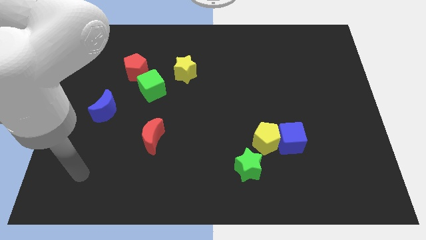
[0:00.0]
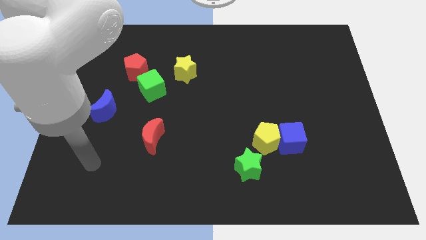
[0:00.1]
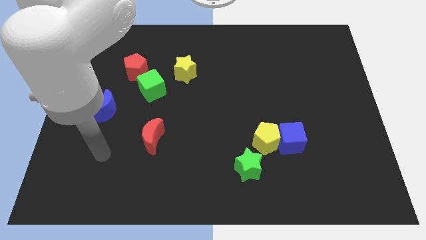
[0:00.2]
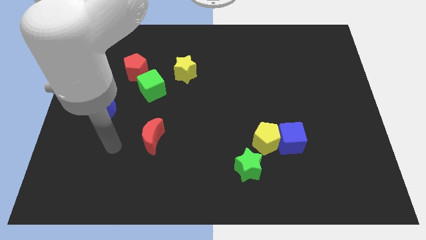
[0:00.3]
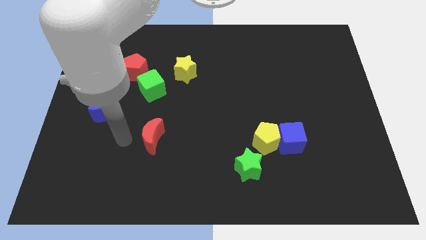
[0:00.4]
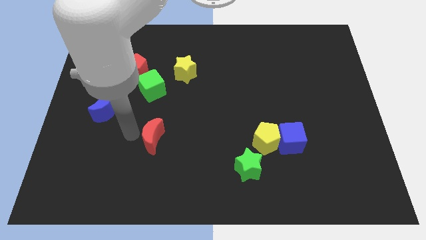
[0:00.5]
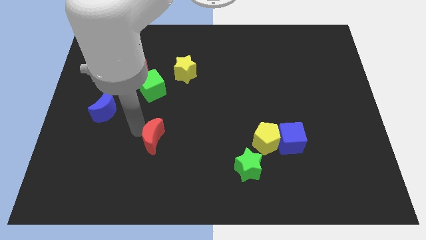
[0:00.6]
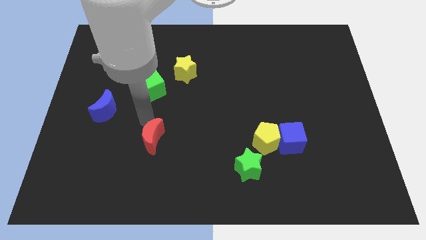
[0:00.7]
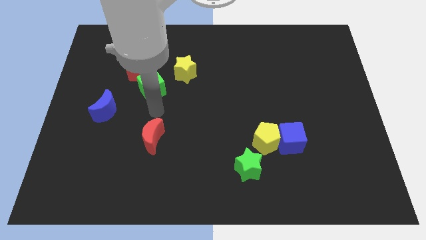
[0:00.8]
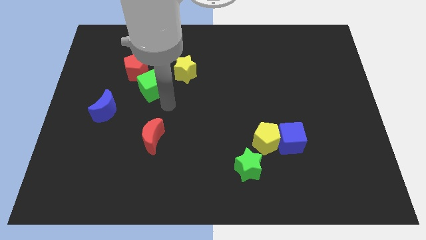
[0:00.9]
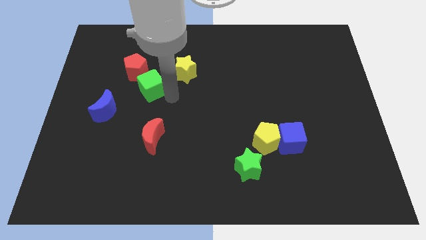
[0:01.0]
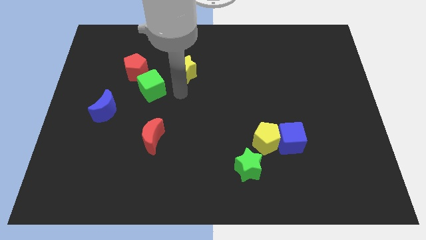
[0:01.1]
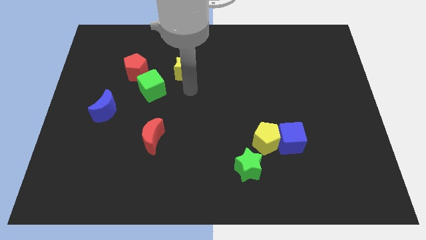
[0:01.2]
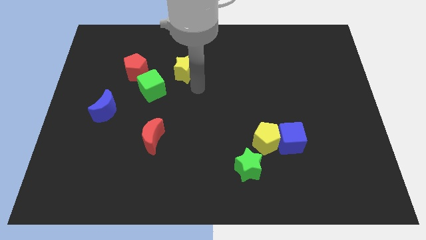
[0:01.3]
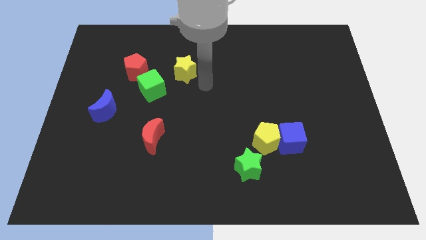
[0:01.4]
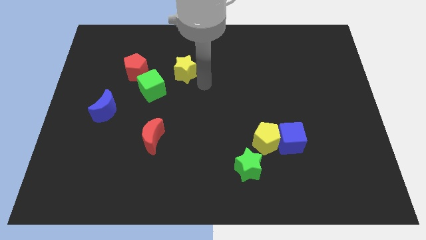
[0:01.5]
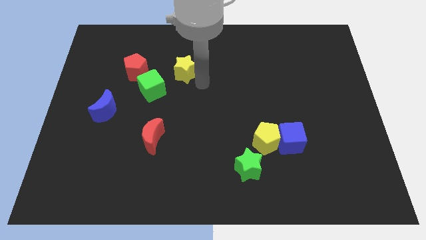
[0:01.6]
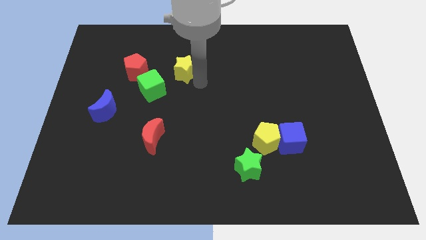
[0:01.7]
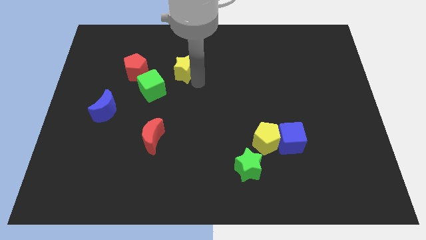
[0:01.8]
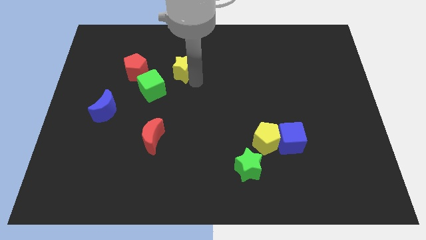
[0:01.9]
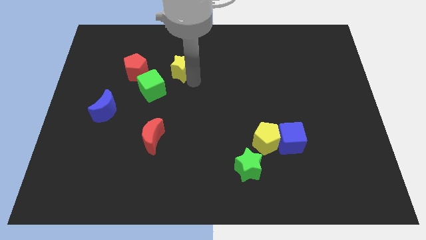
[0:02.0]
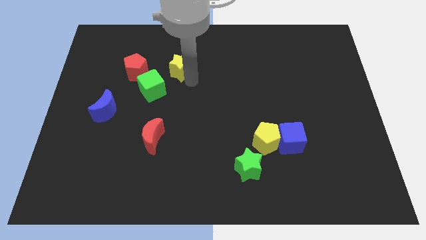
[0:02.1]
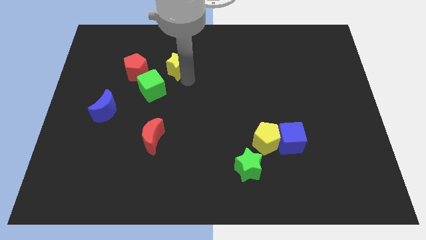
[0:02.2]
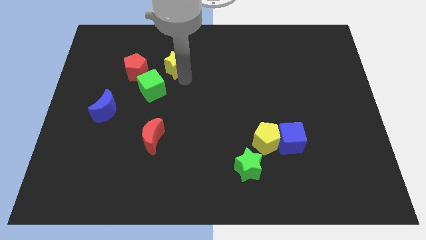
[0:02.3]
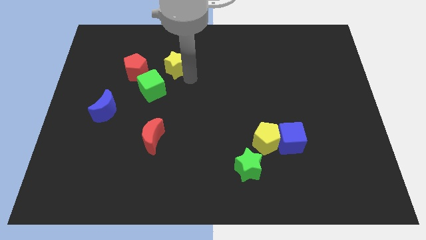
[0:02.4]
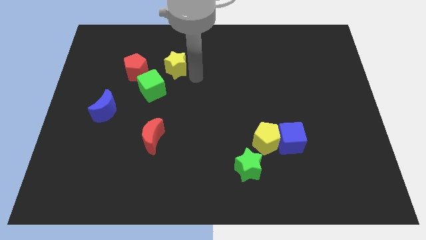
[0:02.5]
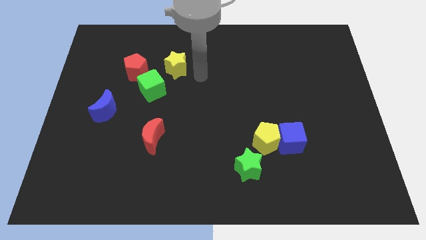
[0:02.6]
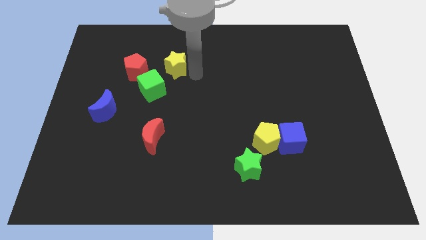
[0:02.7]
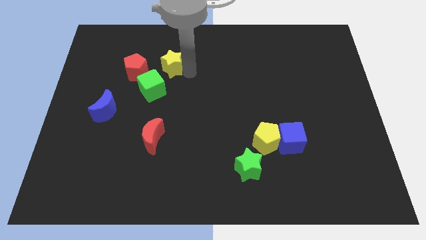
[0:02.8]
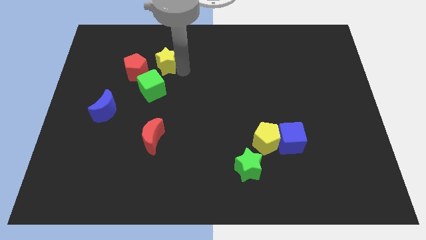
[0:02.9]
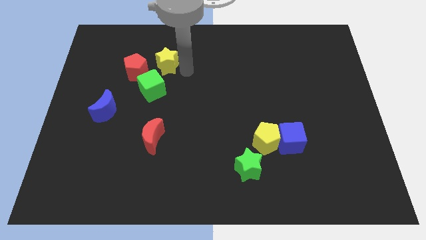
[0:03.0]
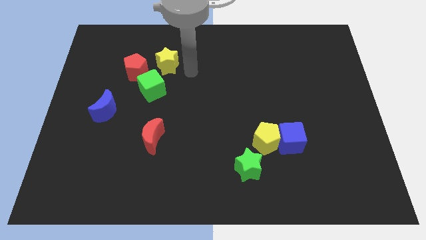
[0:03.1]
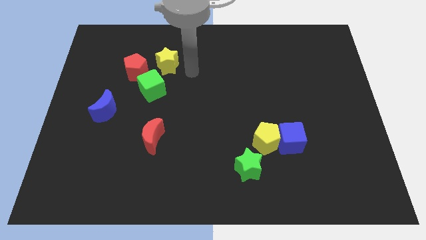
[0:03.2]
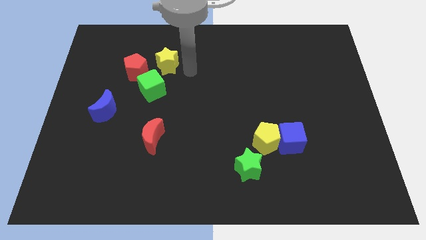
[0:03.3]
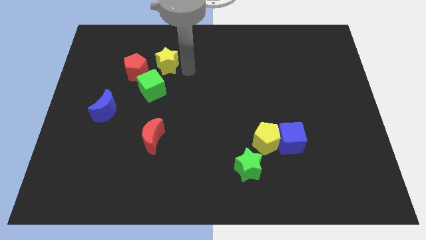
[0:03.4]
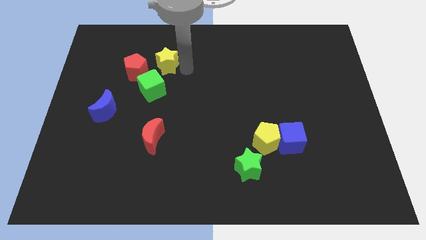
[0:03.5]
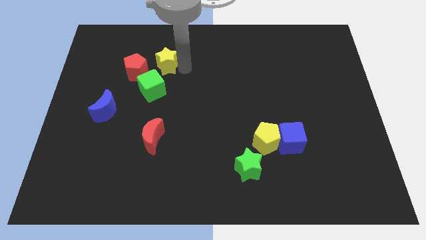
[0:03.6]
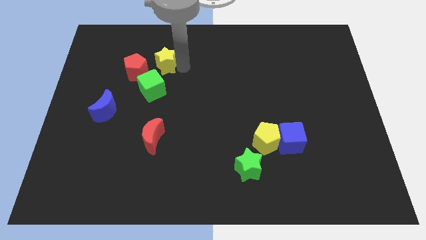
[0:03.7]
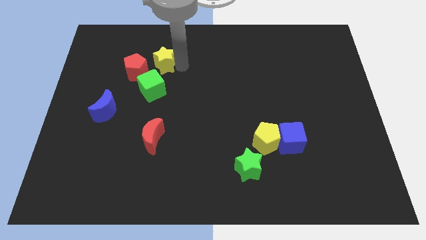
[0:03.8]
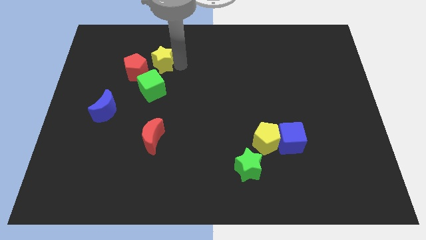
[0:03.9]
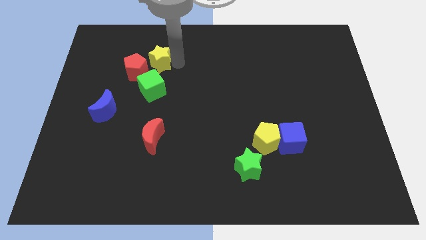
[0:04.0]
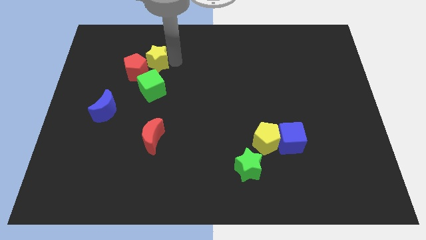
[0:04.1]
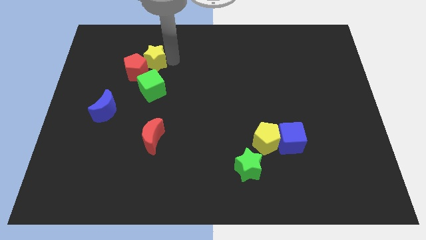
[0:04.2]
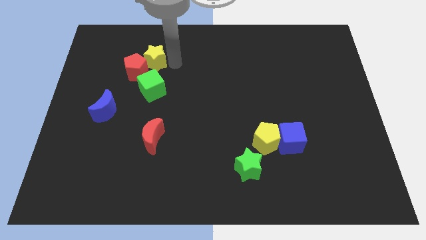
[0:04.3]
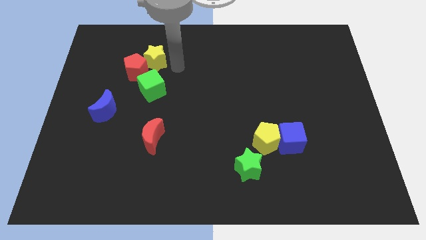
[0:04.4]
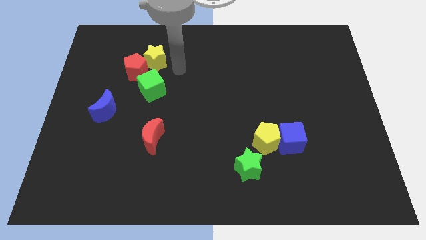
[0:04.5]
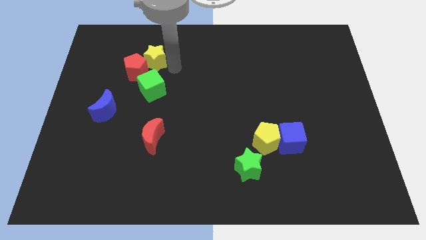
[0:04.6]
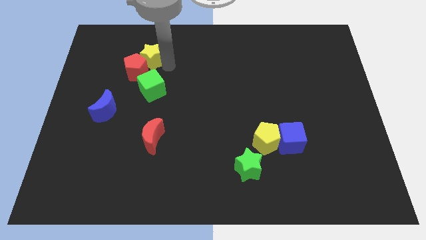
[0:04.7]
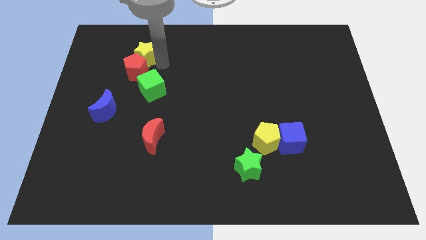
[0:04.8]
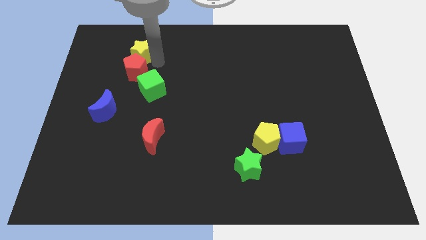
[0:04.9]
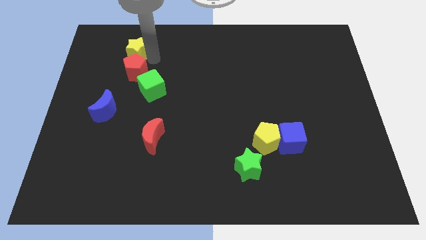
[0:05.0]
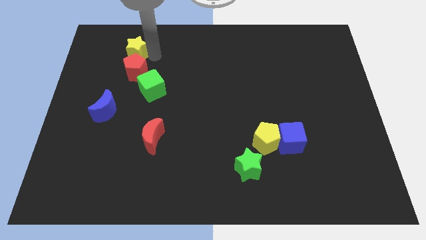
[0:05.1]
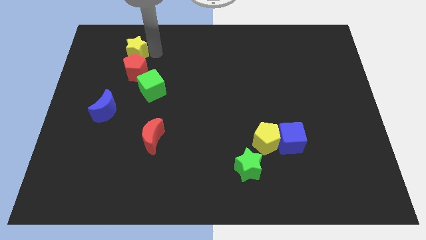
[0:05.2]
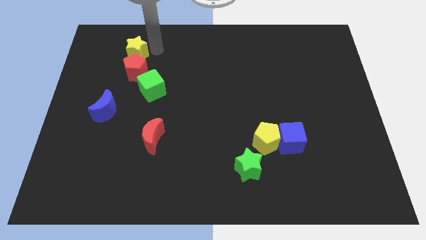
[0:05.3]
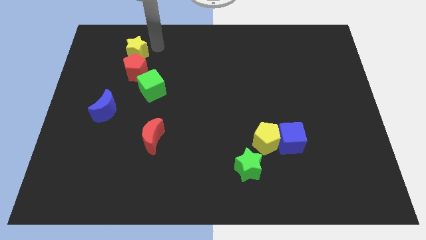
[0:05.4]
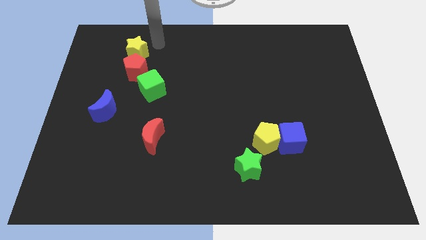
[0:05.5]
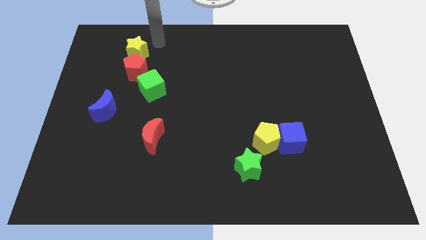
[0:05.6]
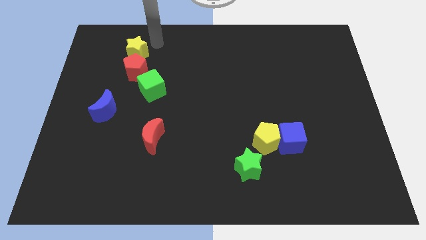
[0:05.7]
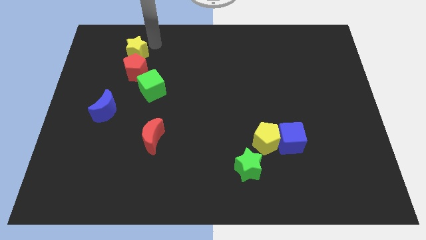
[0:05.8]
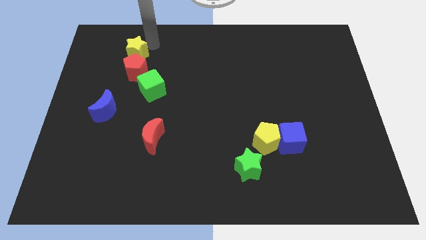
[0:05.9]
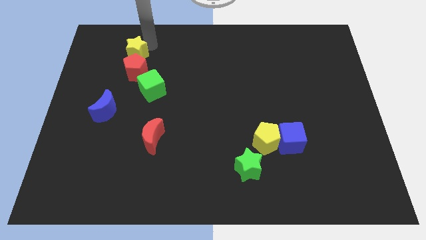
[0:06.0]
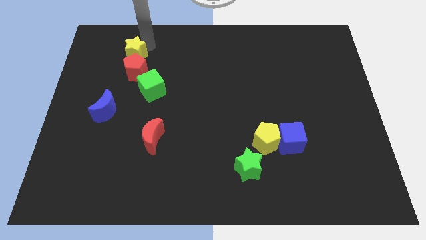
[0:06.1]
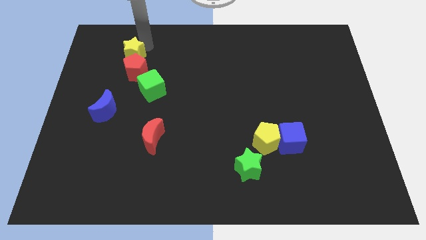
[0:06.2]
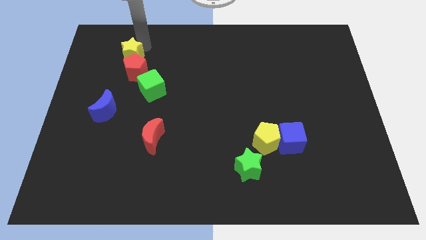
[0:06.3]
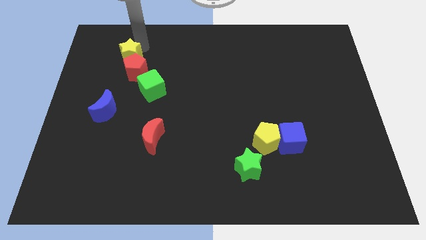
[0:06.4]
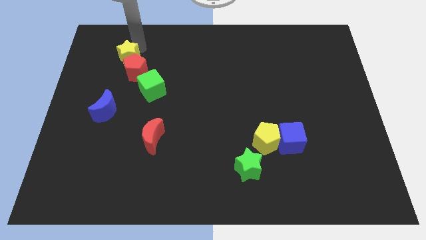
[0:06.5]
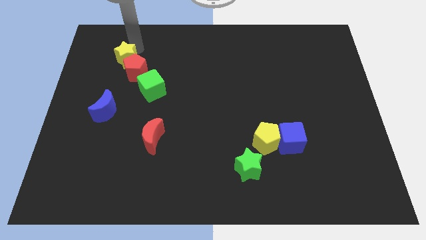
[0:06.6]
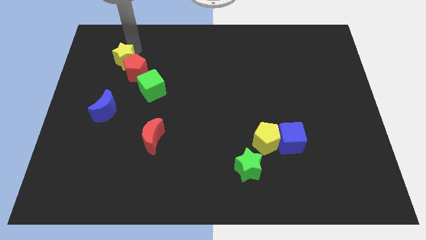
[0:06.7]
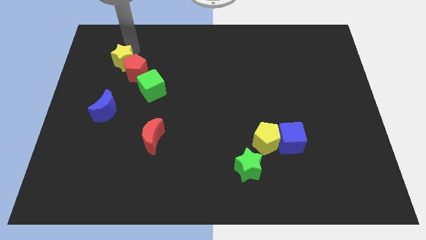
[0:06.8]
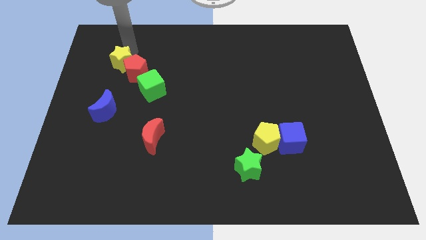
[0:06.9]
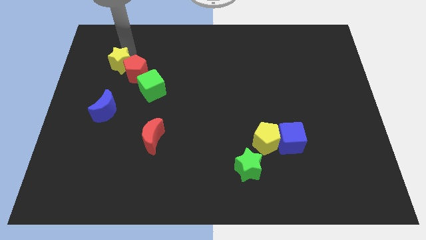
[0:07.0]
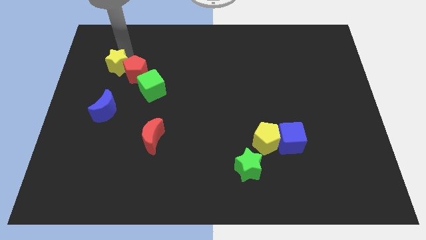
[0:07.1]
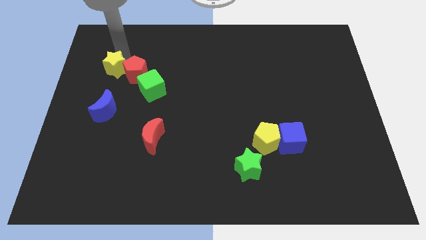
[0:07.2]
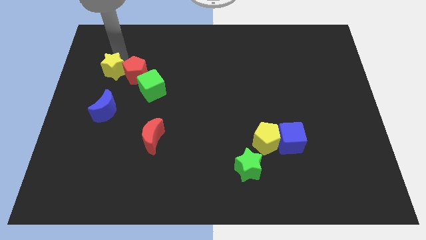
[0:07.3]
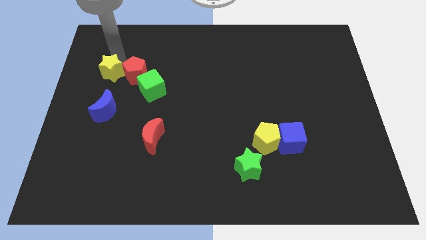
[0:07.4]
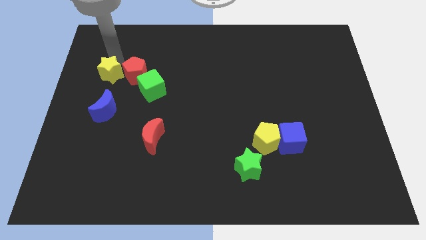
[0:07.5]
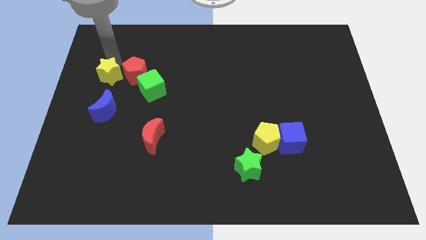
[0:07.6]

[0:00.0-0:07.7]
push the yellow star just left of the green cube
